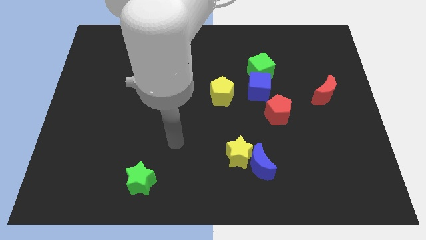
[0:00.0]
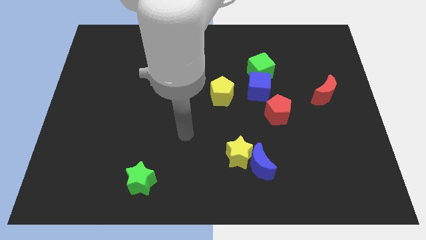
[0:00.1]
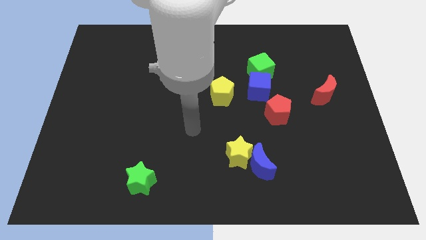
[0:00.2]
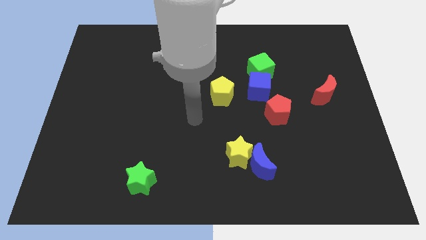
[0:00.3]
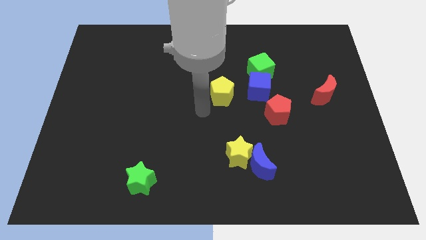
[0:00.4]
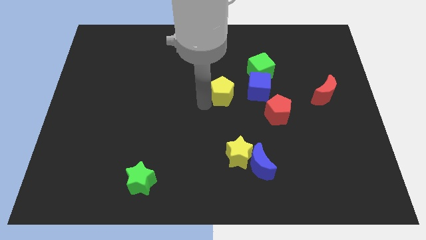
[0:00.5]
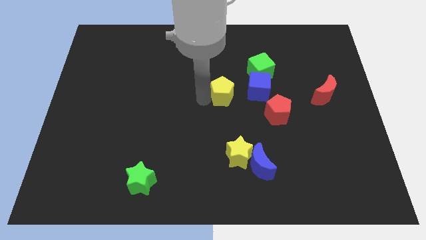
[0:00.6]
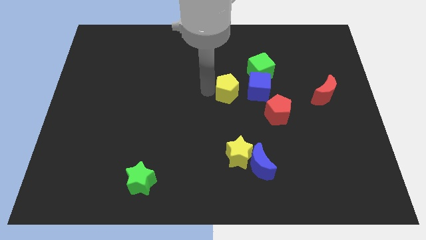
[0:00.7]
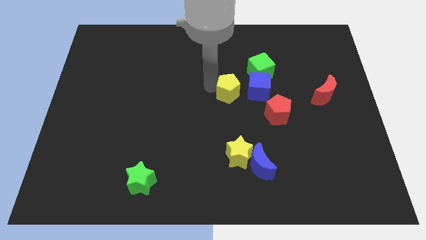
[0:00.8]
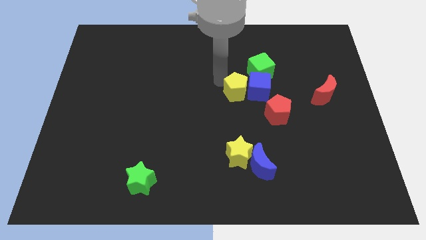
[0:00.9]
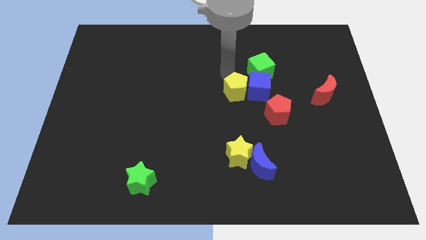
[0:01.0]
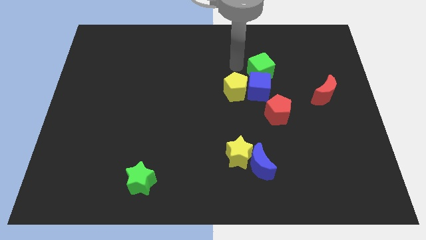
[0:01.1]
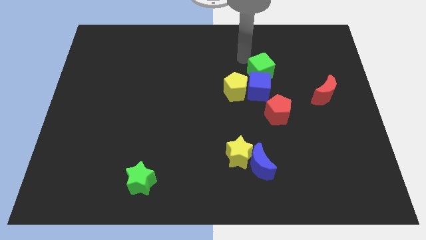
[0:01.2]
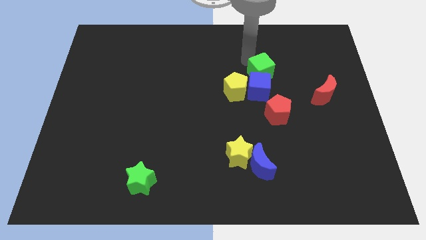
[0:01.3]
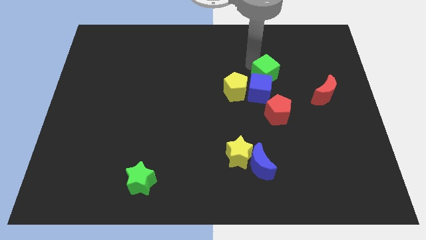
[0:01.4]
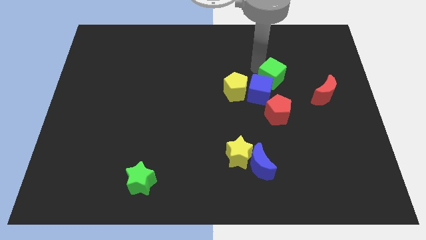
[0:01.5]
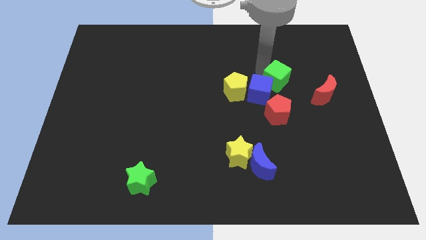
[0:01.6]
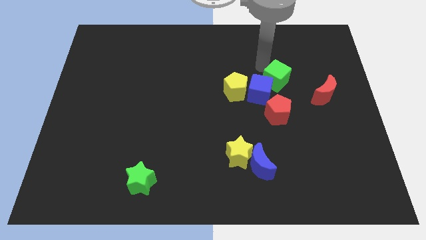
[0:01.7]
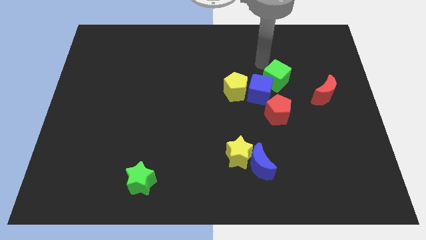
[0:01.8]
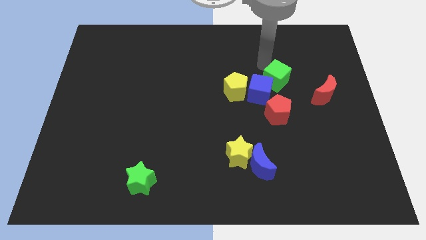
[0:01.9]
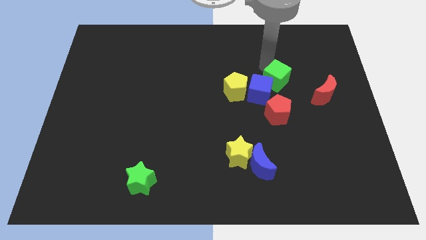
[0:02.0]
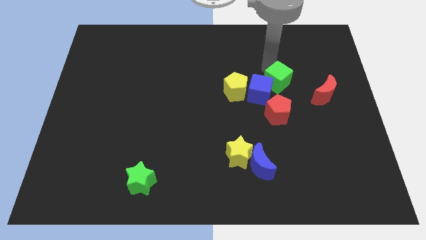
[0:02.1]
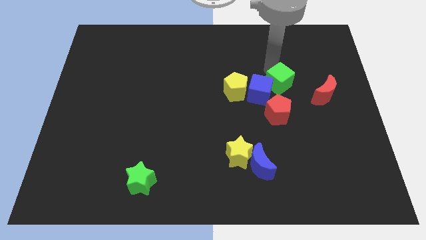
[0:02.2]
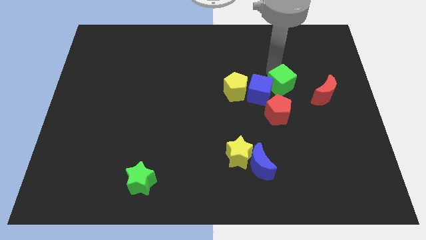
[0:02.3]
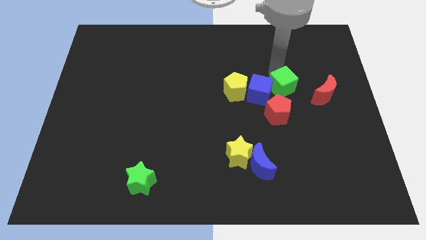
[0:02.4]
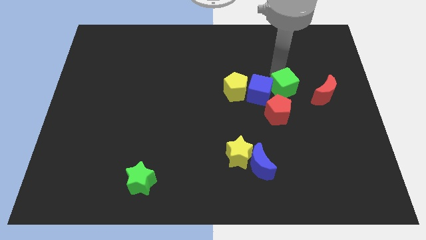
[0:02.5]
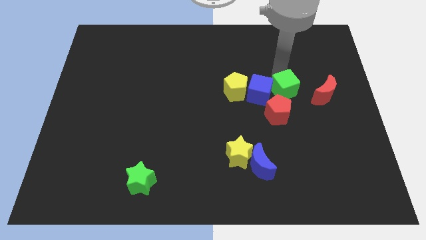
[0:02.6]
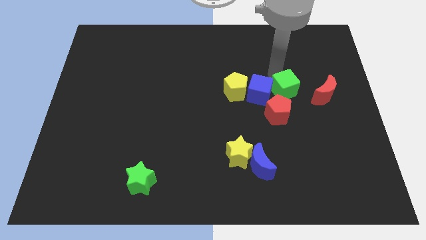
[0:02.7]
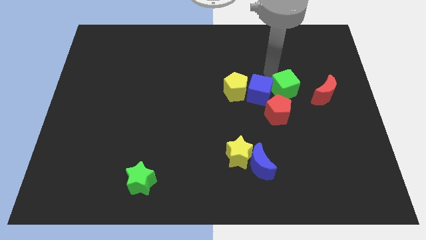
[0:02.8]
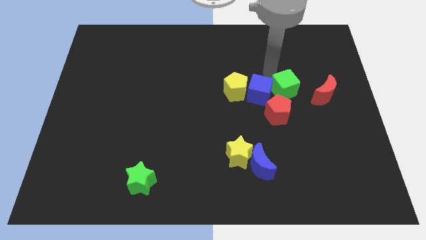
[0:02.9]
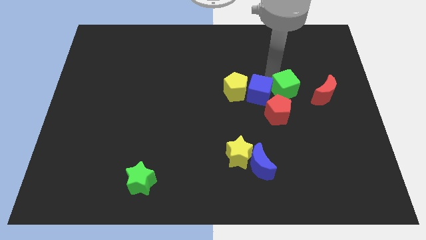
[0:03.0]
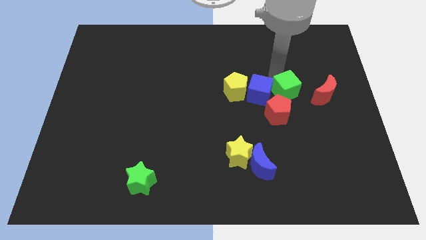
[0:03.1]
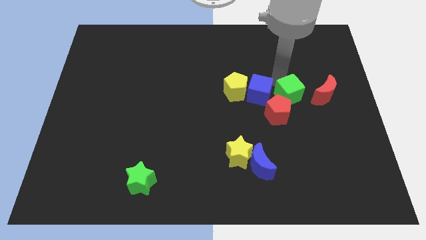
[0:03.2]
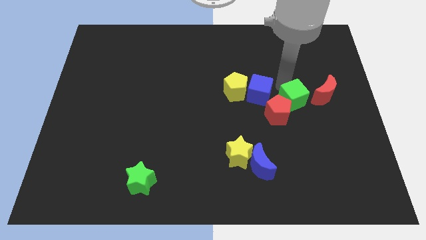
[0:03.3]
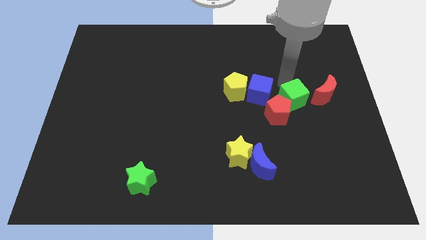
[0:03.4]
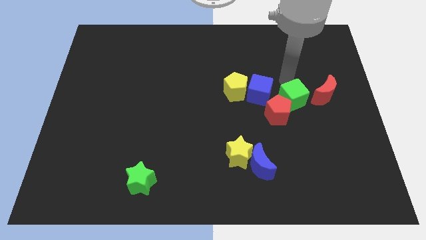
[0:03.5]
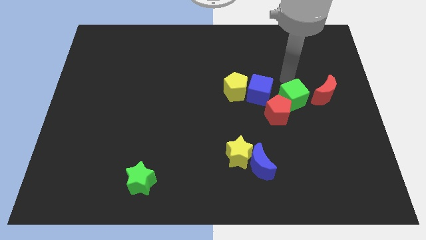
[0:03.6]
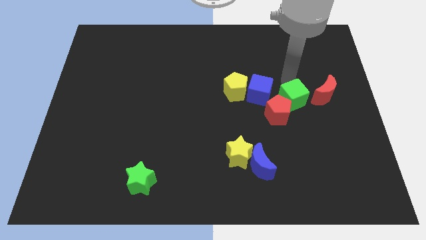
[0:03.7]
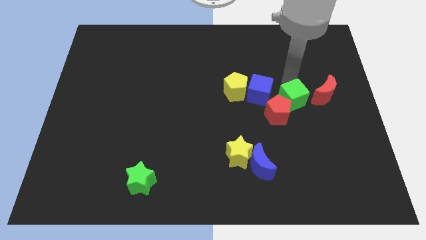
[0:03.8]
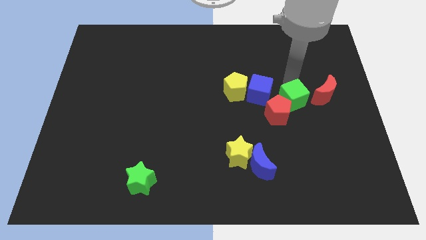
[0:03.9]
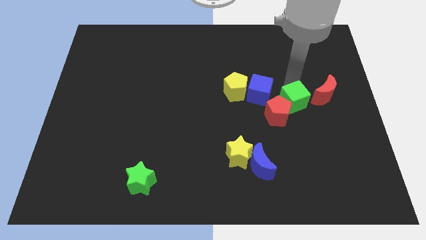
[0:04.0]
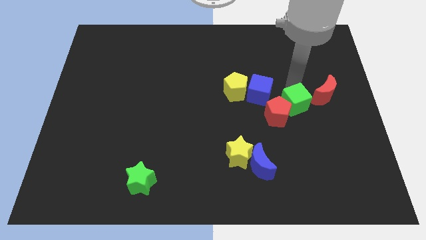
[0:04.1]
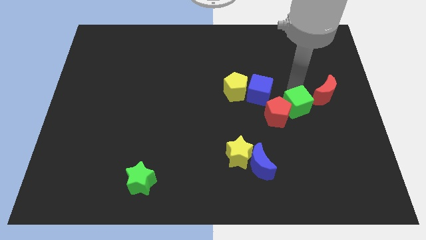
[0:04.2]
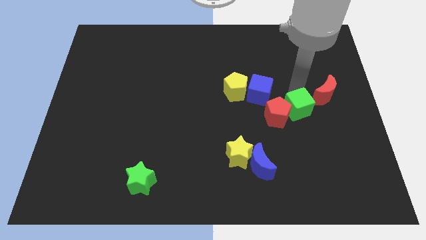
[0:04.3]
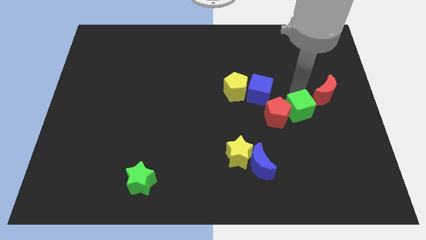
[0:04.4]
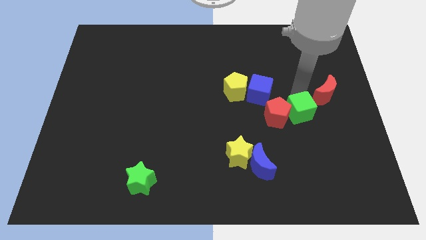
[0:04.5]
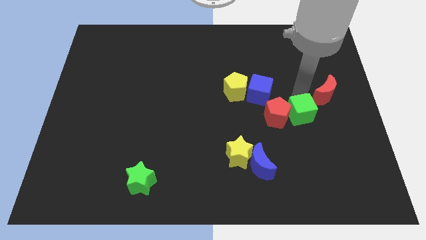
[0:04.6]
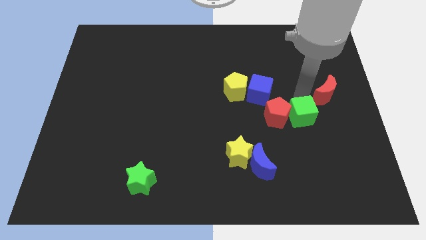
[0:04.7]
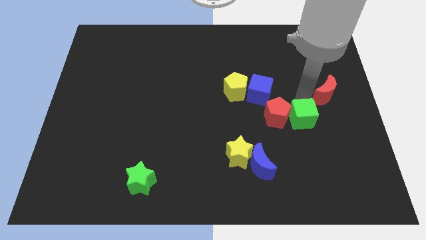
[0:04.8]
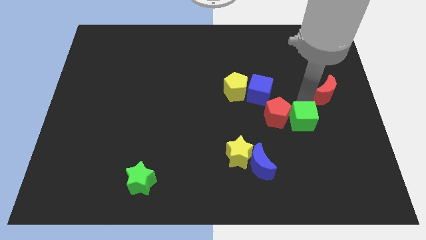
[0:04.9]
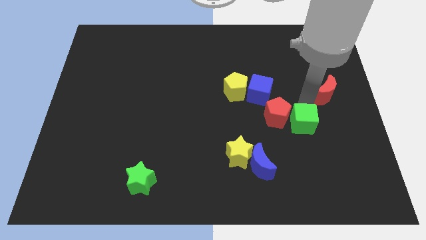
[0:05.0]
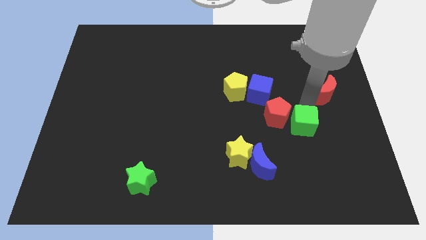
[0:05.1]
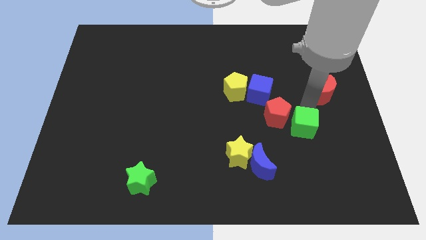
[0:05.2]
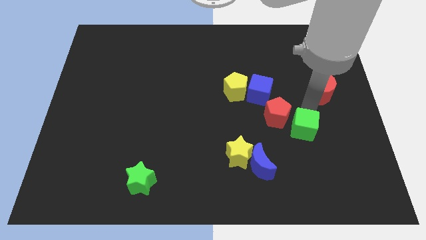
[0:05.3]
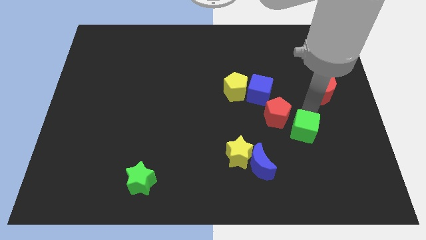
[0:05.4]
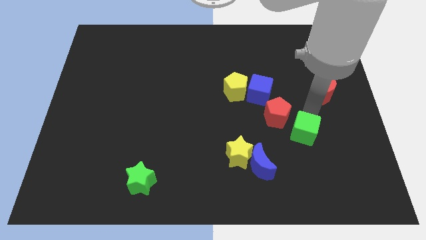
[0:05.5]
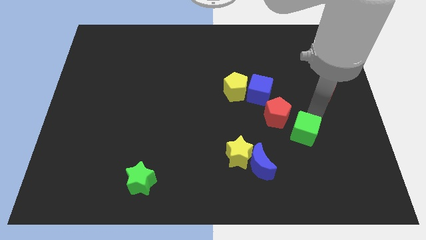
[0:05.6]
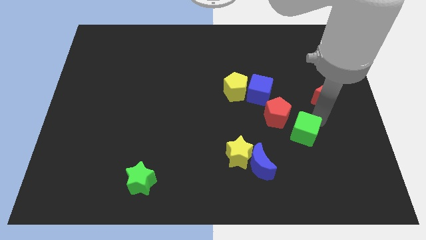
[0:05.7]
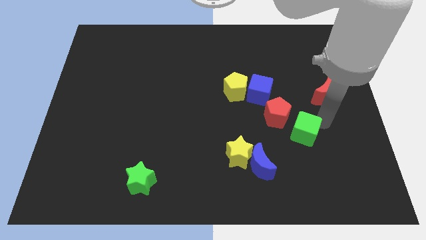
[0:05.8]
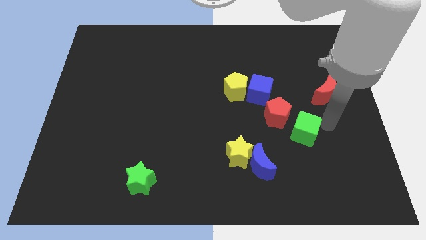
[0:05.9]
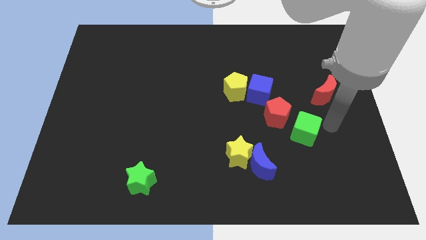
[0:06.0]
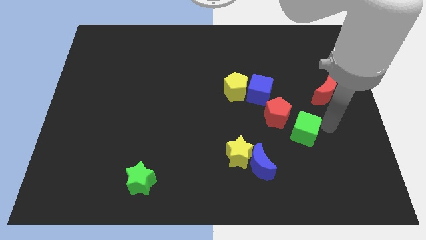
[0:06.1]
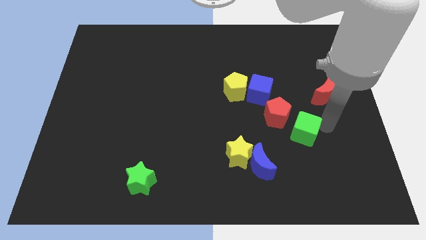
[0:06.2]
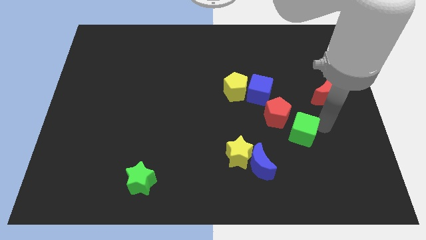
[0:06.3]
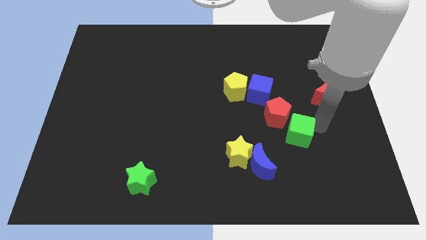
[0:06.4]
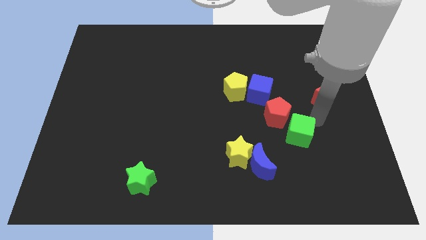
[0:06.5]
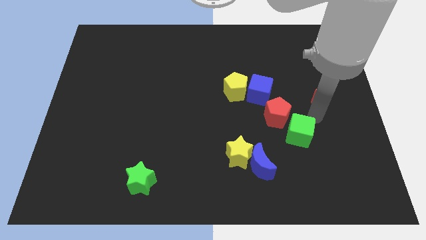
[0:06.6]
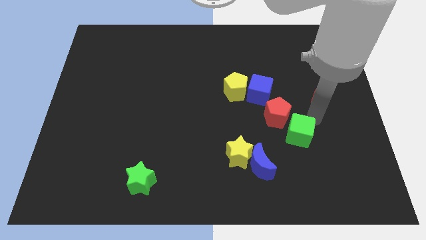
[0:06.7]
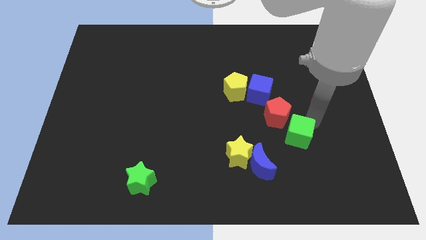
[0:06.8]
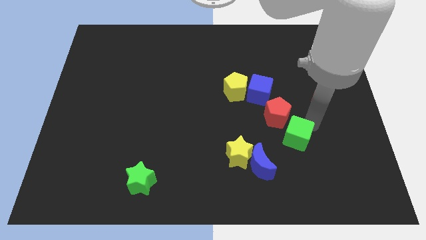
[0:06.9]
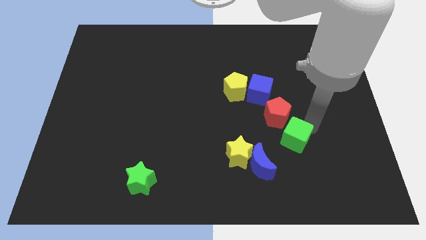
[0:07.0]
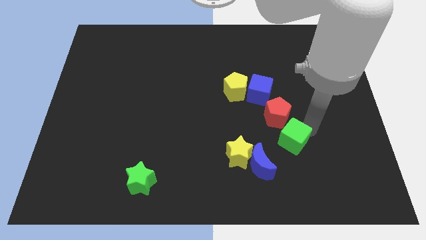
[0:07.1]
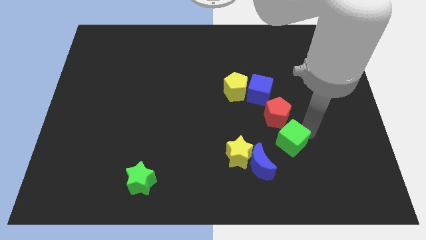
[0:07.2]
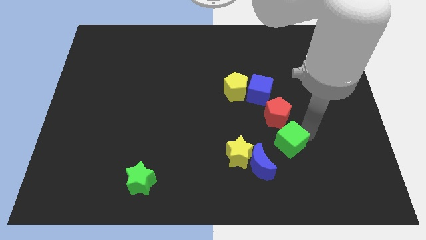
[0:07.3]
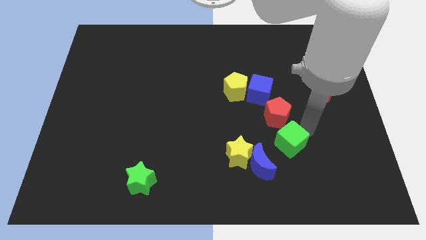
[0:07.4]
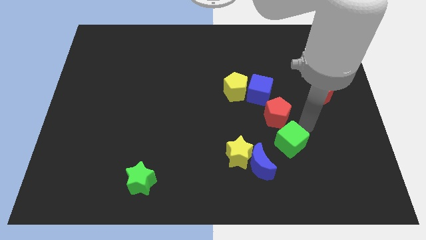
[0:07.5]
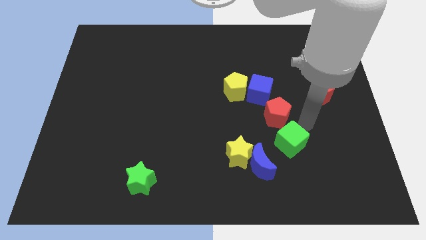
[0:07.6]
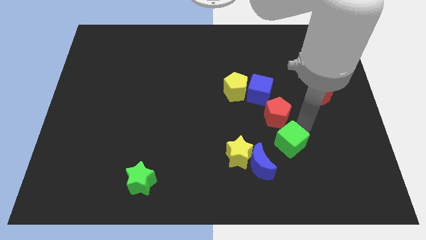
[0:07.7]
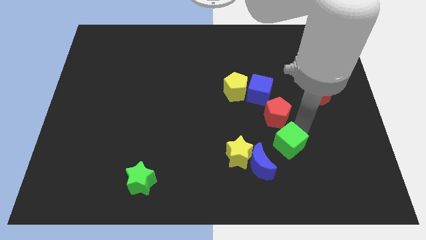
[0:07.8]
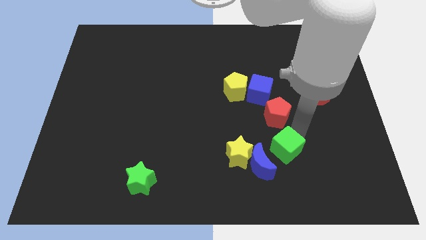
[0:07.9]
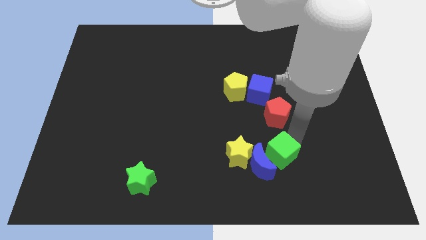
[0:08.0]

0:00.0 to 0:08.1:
push the green cube close to the blue moon
